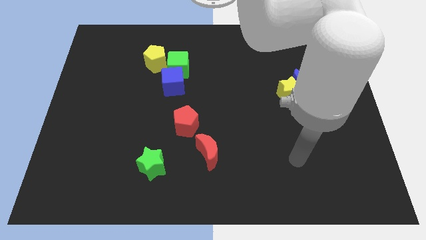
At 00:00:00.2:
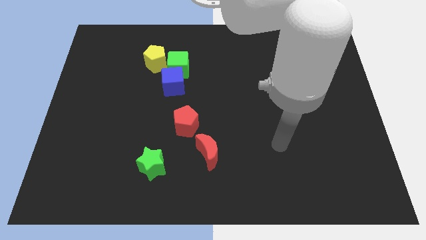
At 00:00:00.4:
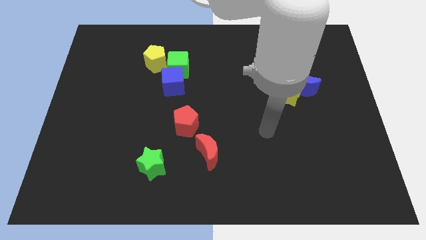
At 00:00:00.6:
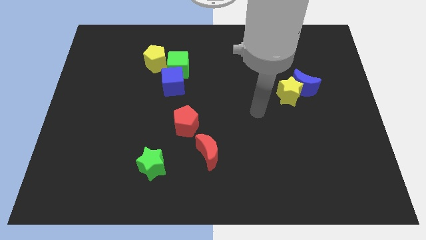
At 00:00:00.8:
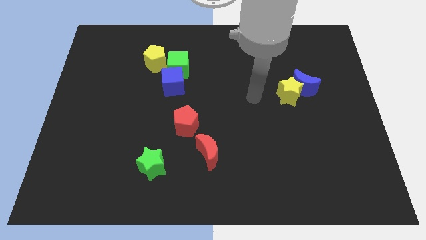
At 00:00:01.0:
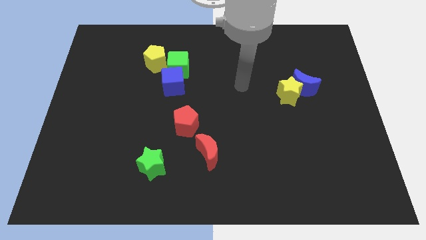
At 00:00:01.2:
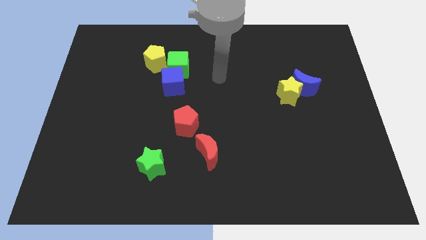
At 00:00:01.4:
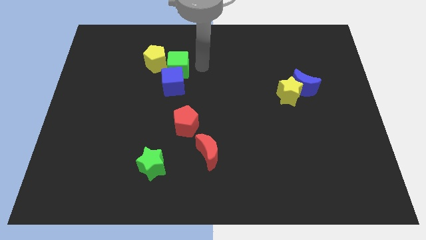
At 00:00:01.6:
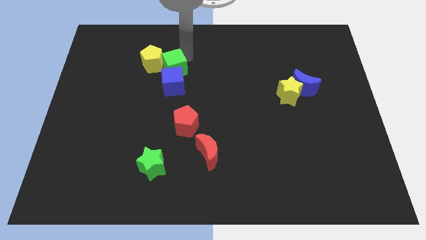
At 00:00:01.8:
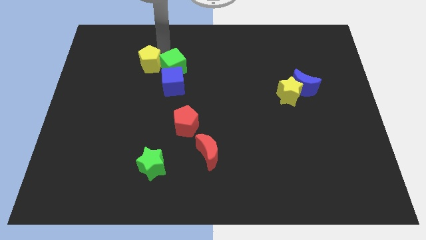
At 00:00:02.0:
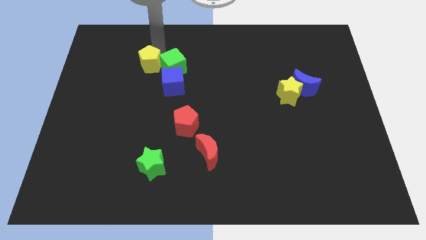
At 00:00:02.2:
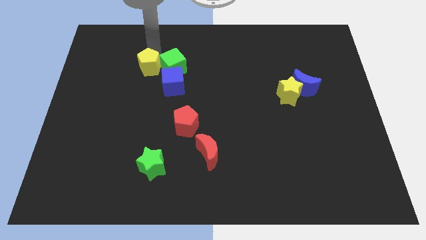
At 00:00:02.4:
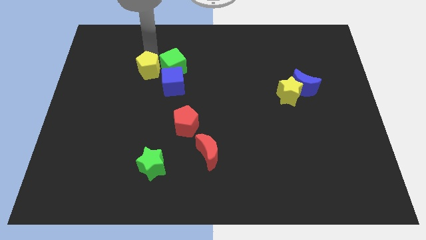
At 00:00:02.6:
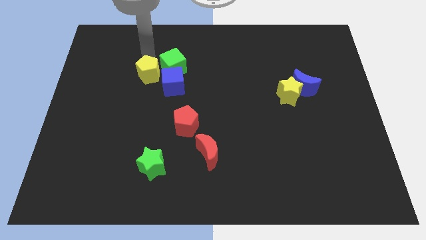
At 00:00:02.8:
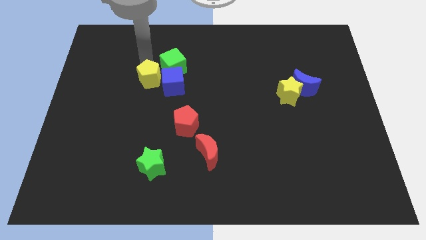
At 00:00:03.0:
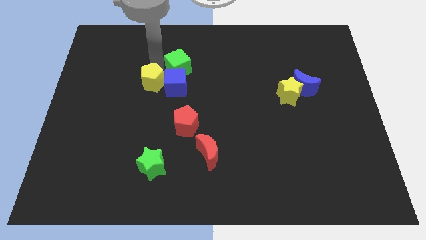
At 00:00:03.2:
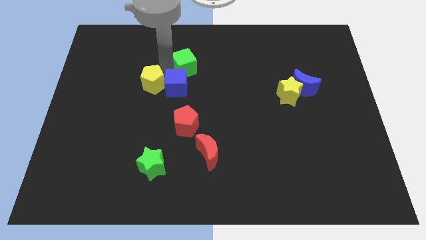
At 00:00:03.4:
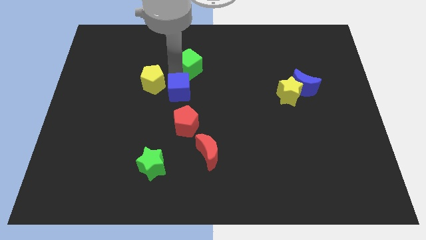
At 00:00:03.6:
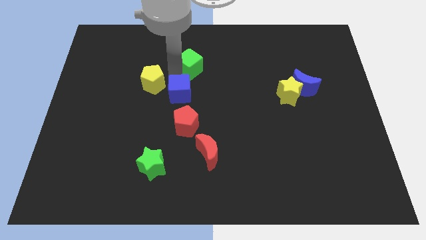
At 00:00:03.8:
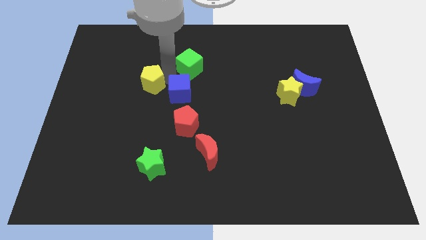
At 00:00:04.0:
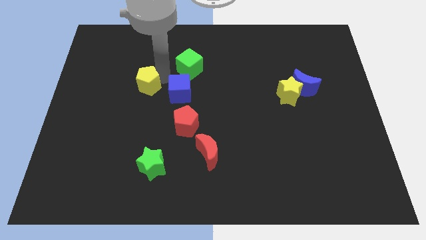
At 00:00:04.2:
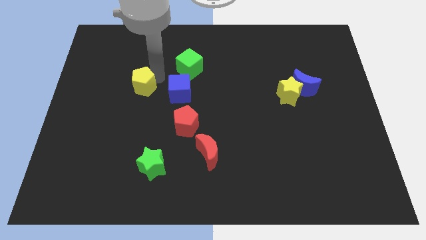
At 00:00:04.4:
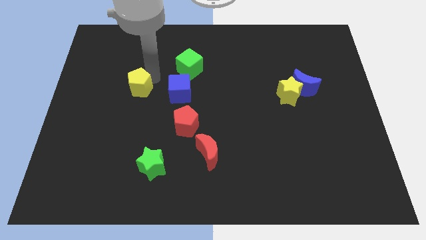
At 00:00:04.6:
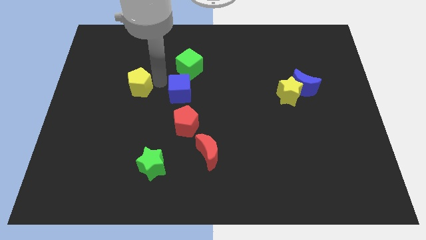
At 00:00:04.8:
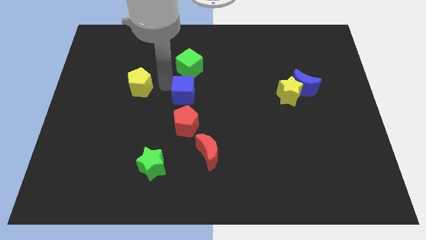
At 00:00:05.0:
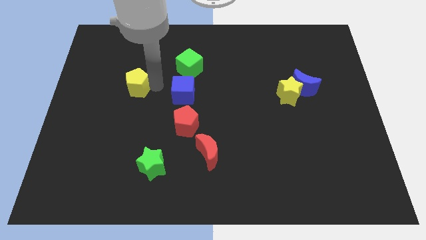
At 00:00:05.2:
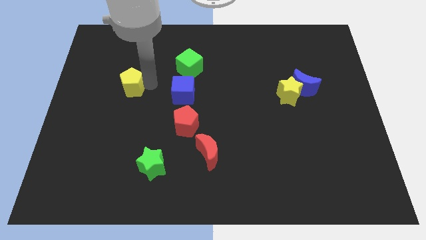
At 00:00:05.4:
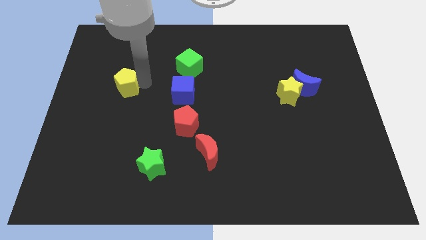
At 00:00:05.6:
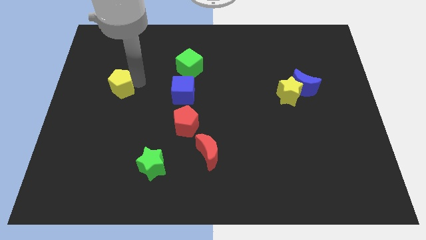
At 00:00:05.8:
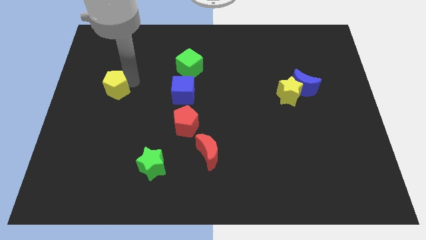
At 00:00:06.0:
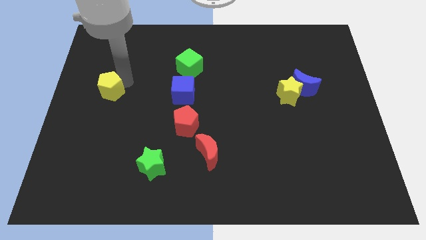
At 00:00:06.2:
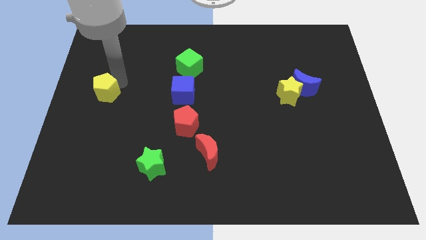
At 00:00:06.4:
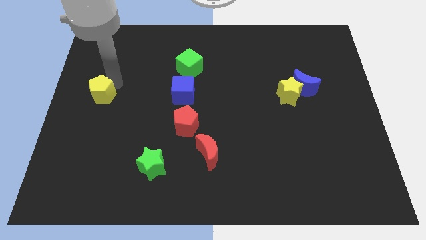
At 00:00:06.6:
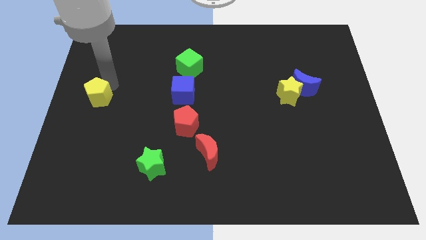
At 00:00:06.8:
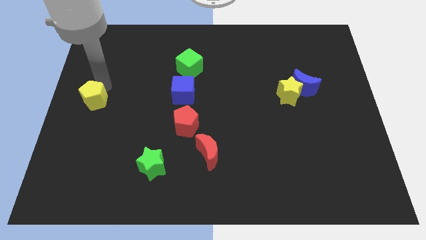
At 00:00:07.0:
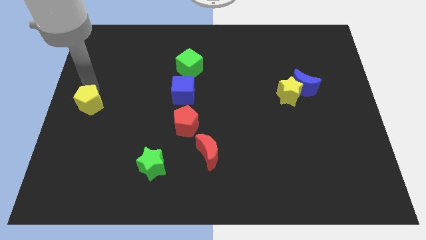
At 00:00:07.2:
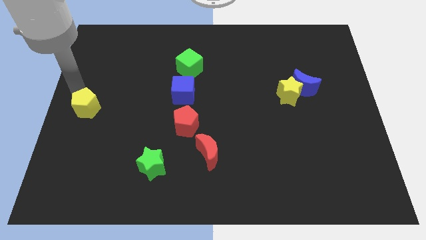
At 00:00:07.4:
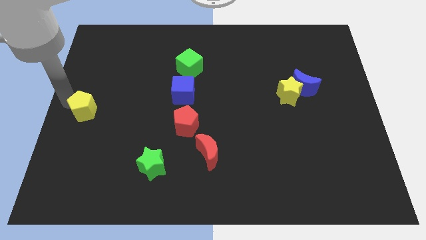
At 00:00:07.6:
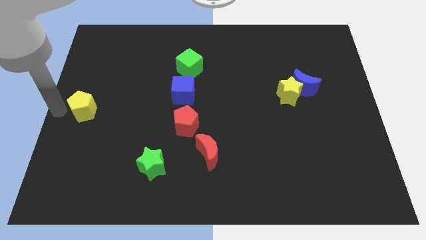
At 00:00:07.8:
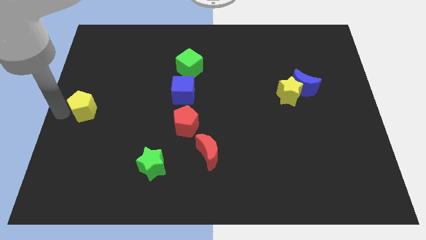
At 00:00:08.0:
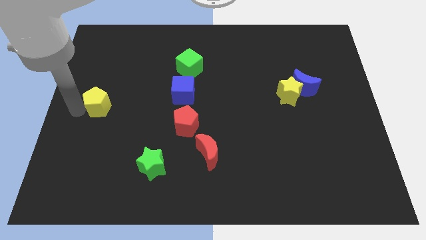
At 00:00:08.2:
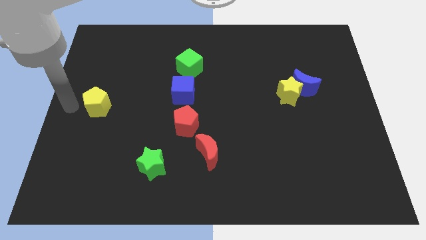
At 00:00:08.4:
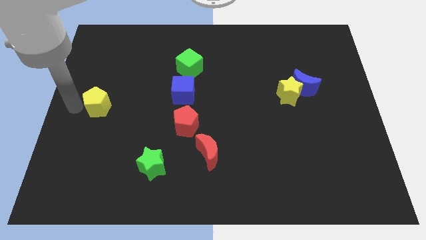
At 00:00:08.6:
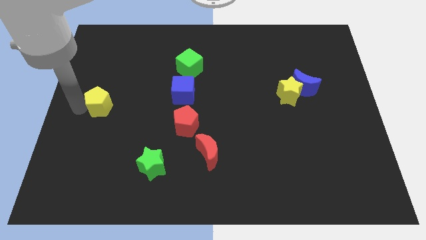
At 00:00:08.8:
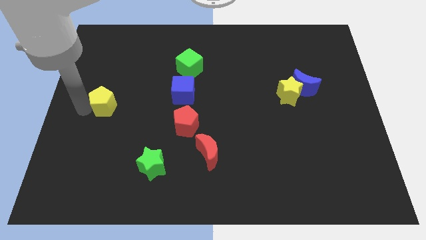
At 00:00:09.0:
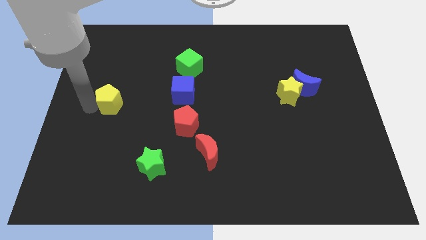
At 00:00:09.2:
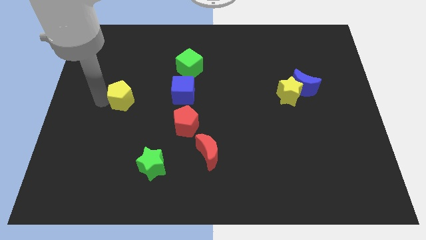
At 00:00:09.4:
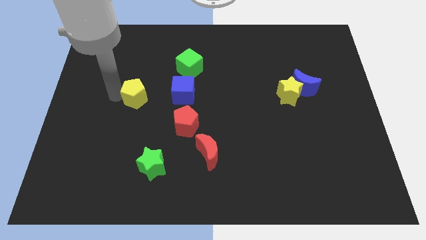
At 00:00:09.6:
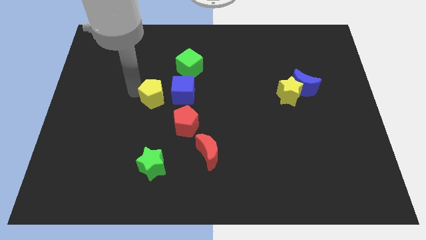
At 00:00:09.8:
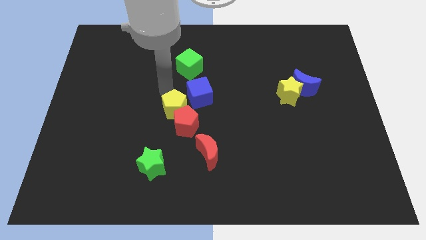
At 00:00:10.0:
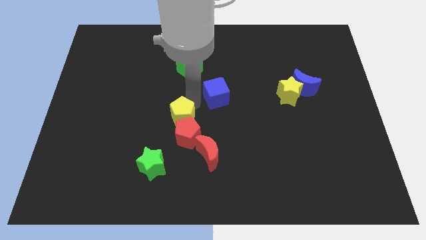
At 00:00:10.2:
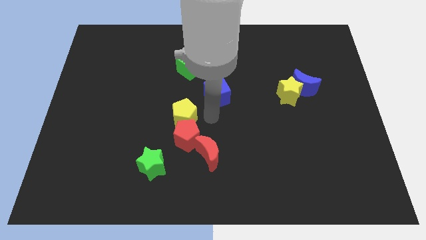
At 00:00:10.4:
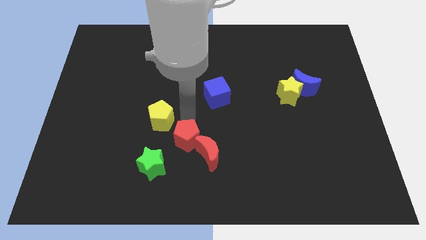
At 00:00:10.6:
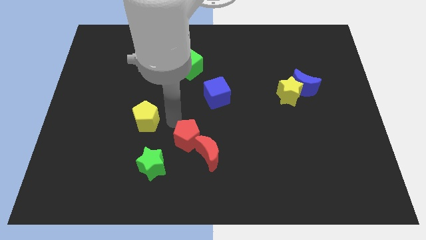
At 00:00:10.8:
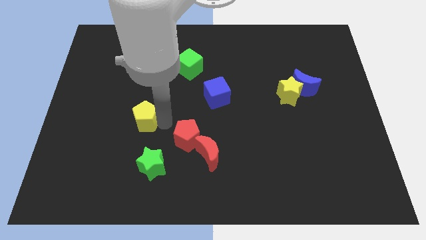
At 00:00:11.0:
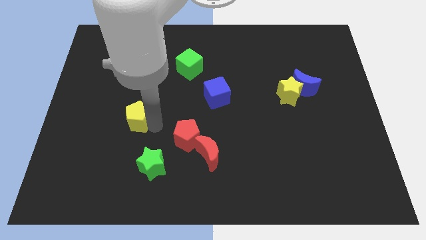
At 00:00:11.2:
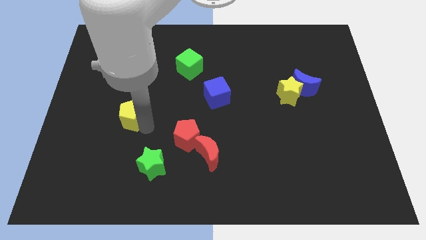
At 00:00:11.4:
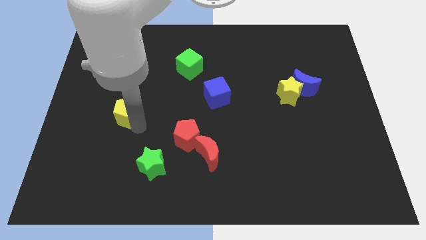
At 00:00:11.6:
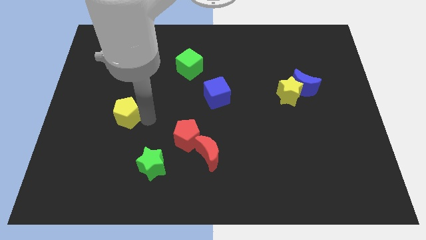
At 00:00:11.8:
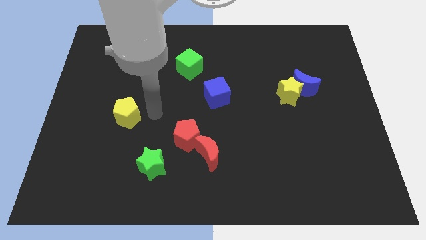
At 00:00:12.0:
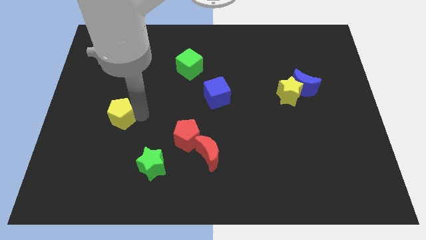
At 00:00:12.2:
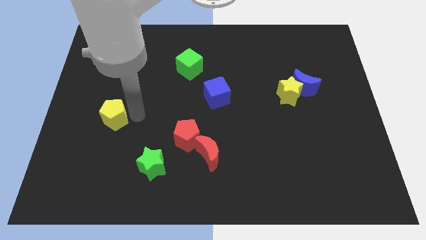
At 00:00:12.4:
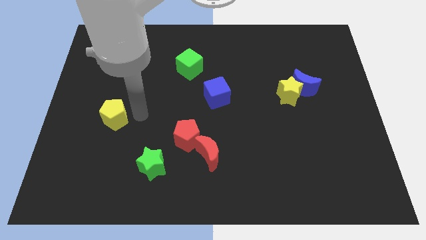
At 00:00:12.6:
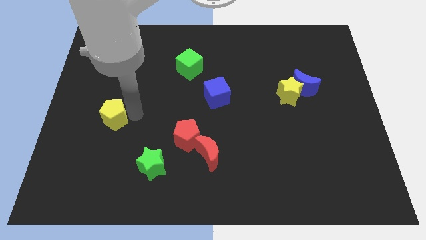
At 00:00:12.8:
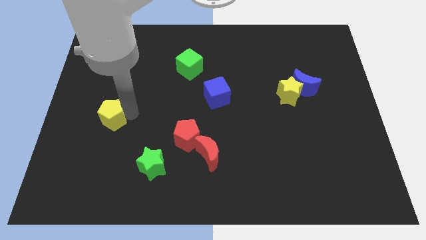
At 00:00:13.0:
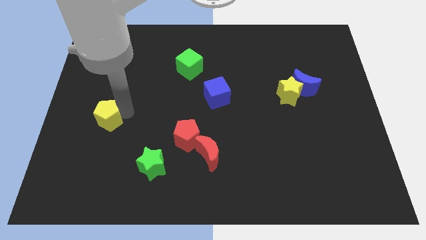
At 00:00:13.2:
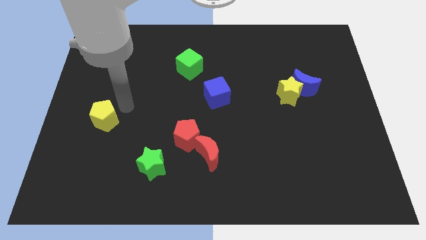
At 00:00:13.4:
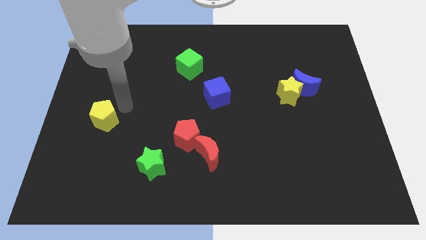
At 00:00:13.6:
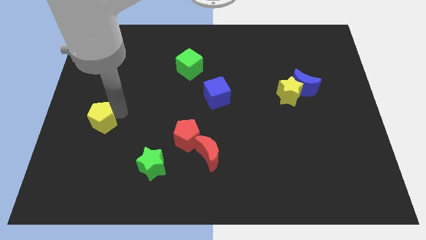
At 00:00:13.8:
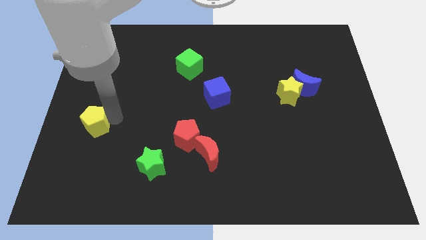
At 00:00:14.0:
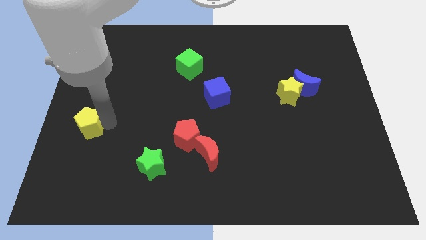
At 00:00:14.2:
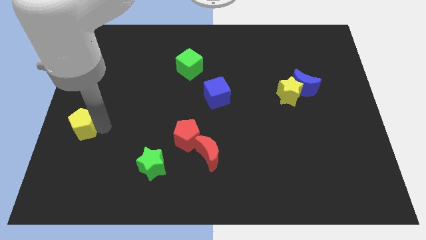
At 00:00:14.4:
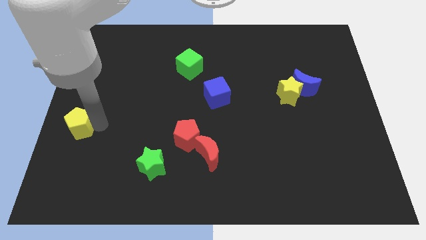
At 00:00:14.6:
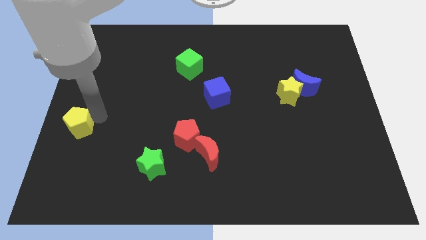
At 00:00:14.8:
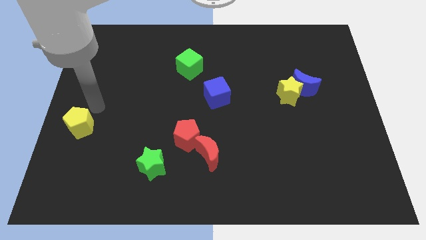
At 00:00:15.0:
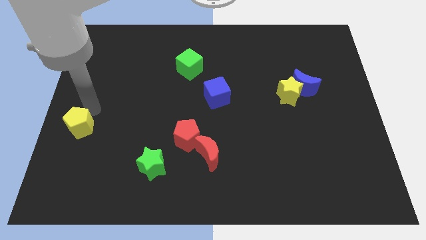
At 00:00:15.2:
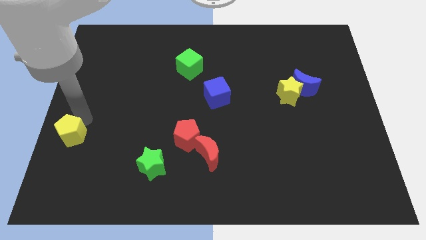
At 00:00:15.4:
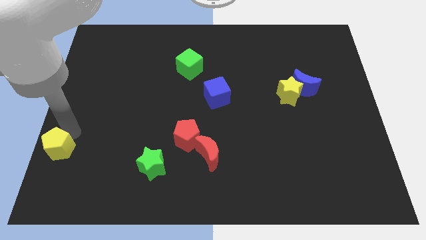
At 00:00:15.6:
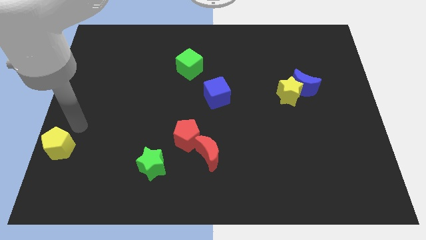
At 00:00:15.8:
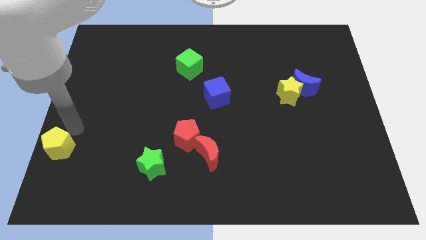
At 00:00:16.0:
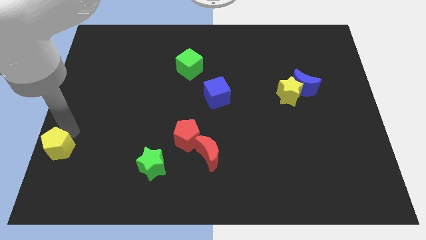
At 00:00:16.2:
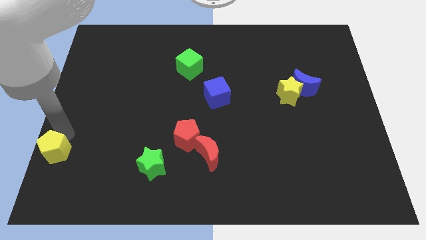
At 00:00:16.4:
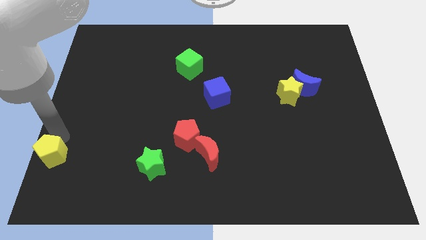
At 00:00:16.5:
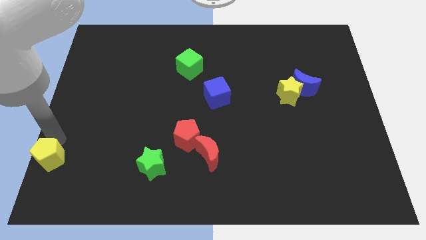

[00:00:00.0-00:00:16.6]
move the yellow pentagon to the bottom left
